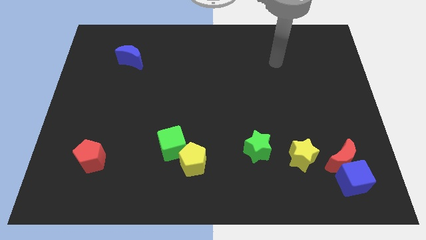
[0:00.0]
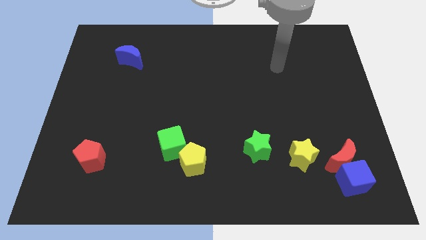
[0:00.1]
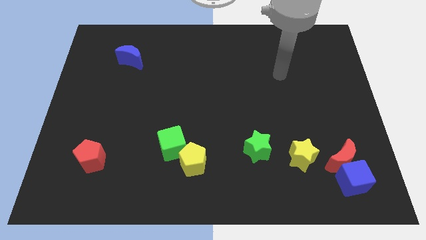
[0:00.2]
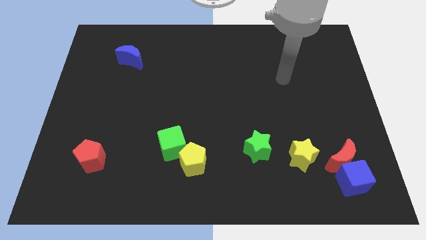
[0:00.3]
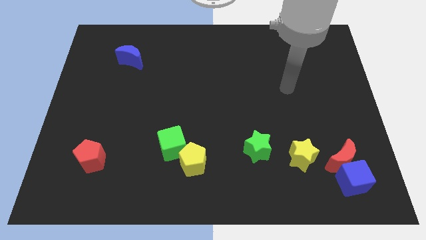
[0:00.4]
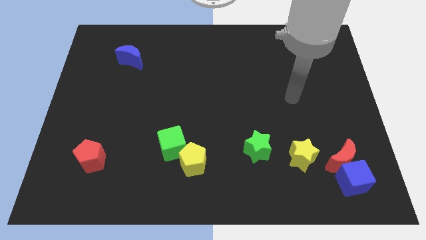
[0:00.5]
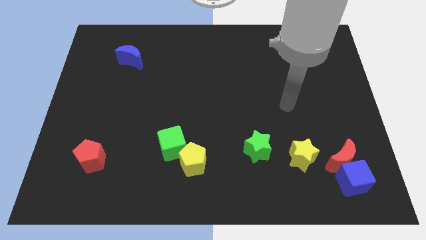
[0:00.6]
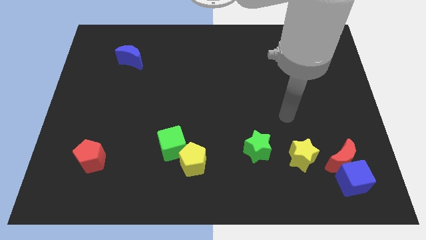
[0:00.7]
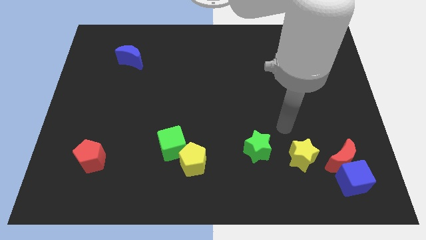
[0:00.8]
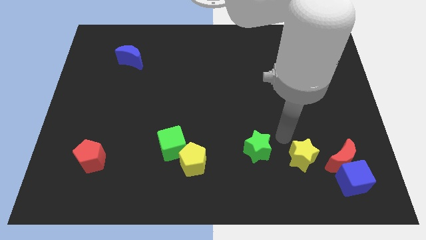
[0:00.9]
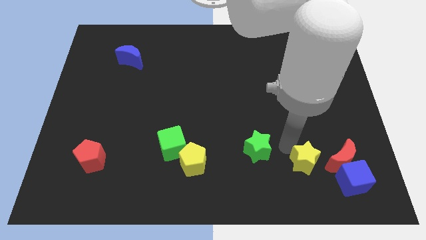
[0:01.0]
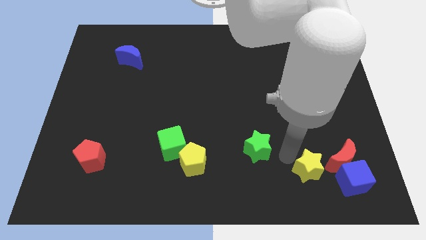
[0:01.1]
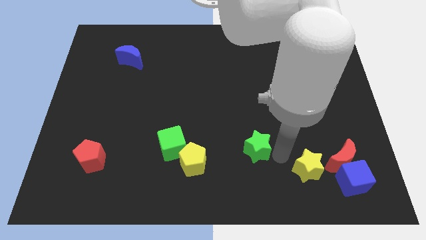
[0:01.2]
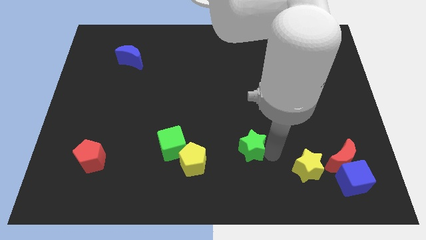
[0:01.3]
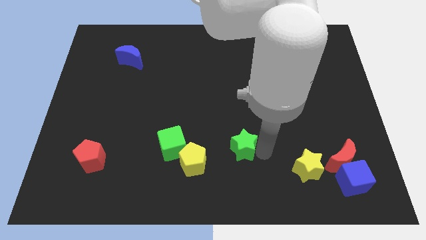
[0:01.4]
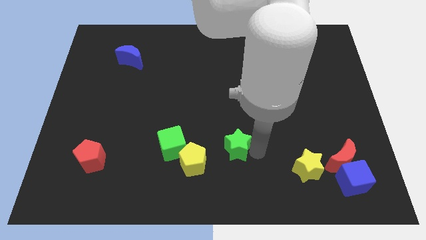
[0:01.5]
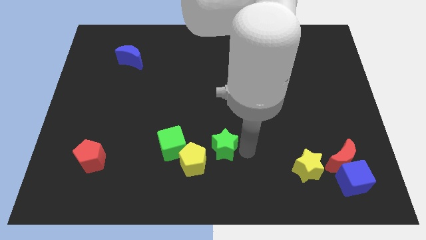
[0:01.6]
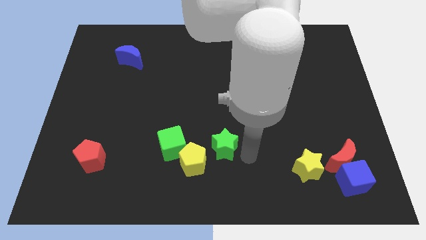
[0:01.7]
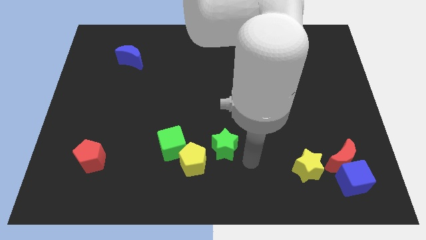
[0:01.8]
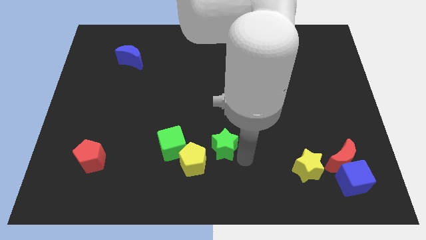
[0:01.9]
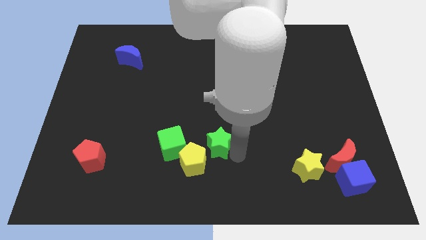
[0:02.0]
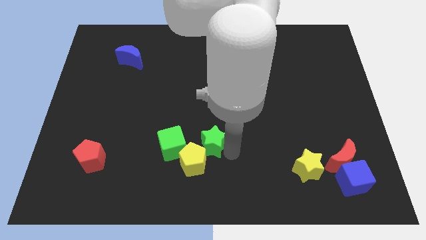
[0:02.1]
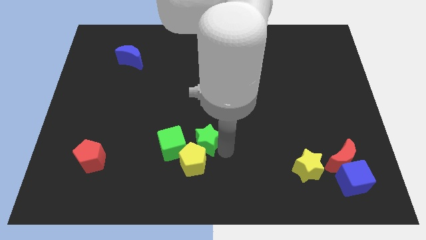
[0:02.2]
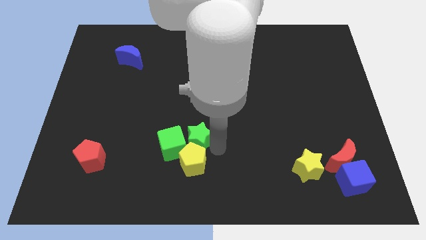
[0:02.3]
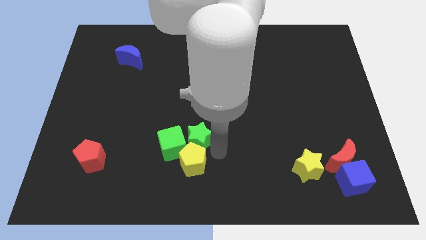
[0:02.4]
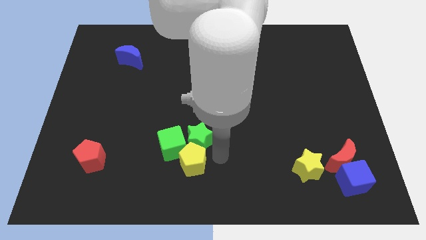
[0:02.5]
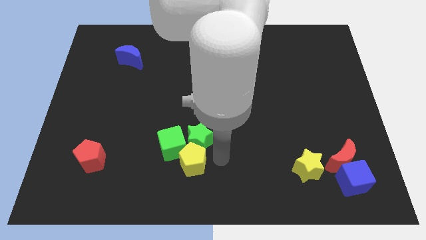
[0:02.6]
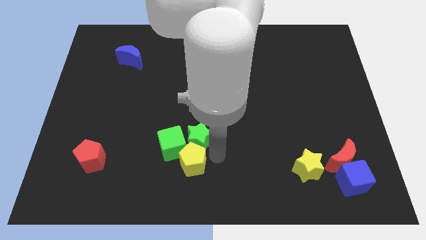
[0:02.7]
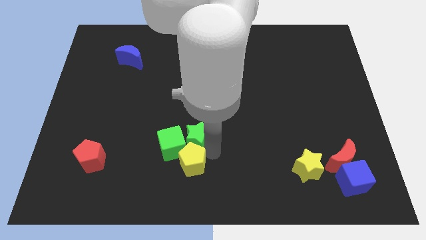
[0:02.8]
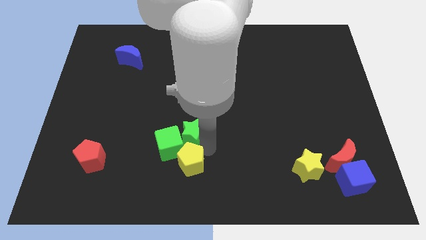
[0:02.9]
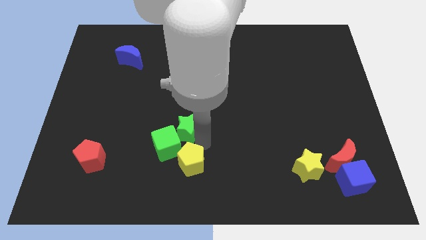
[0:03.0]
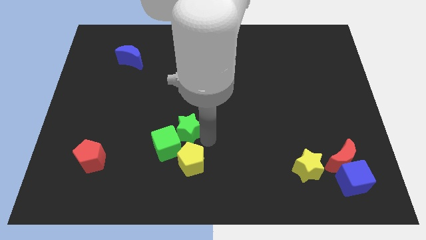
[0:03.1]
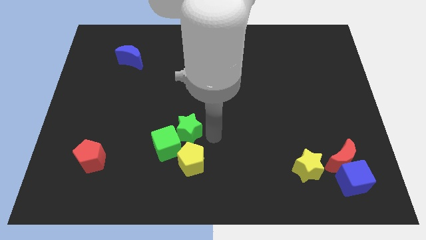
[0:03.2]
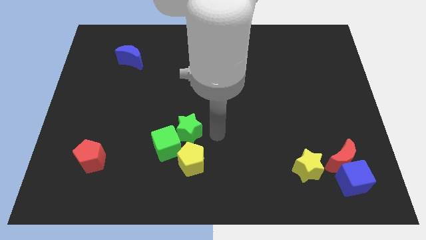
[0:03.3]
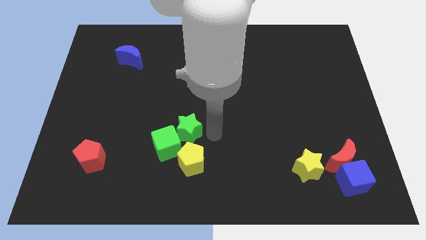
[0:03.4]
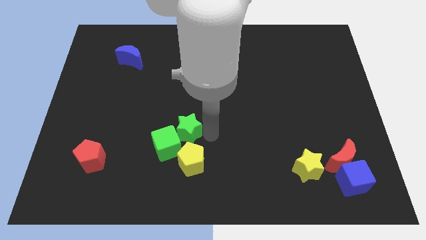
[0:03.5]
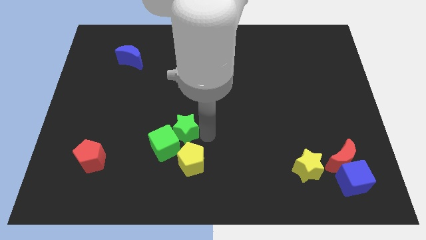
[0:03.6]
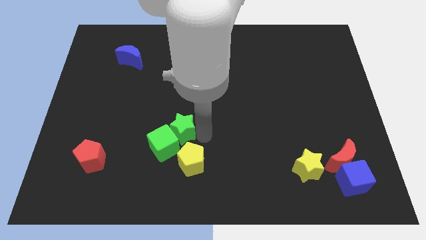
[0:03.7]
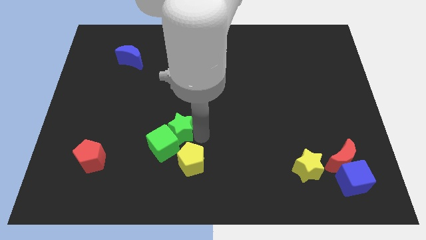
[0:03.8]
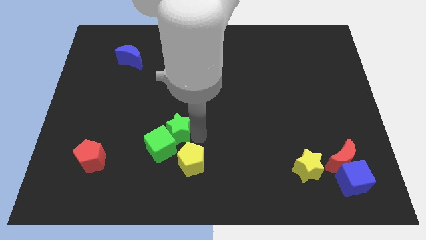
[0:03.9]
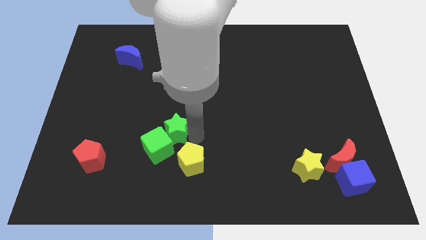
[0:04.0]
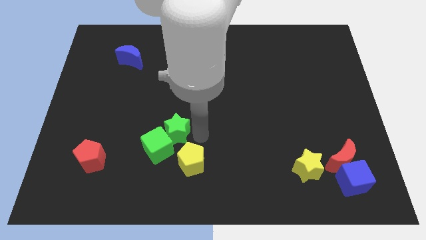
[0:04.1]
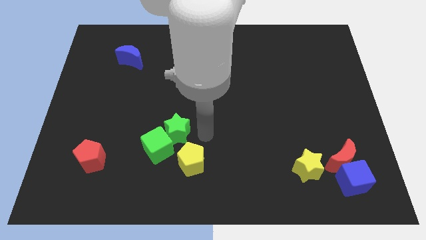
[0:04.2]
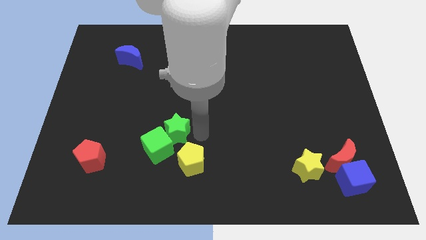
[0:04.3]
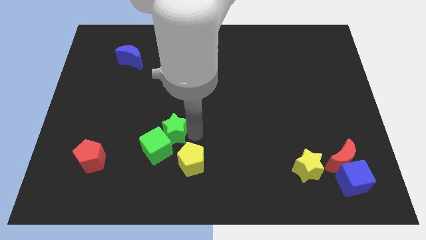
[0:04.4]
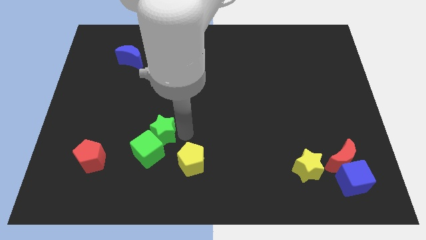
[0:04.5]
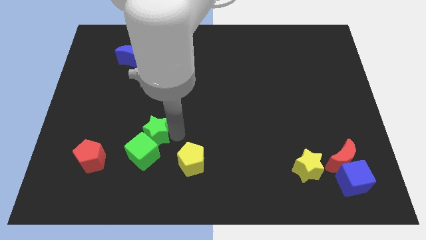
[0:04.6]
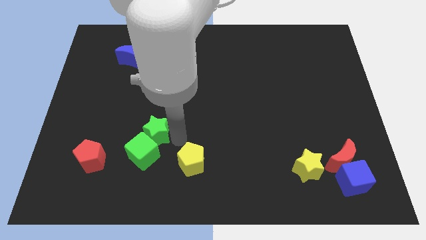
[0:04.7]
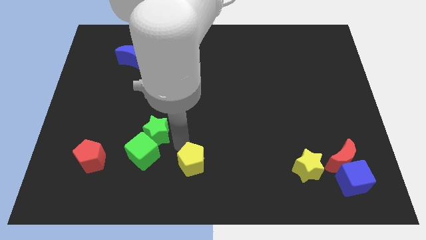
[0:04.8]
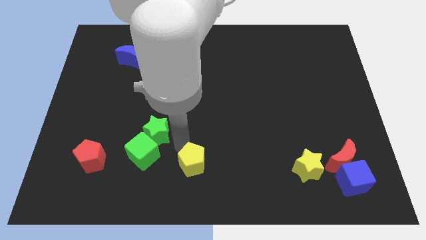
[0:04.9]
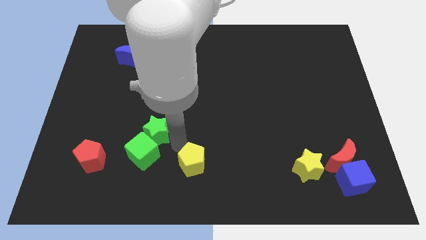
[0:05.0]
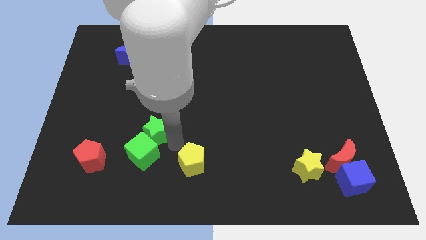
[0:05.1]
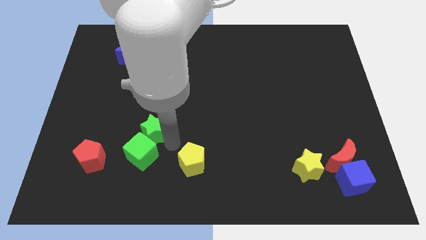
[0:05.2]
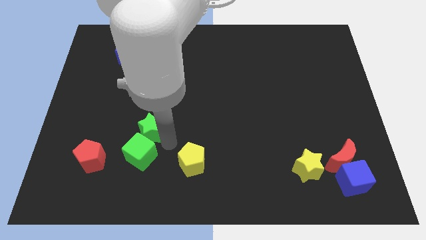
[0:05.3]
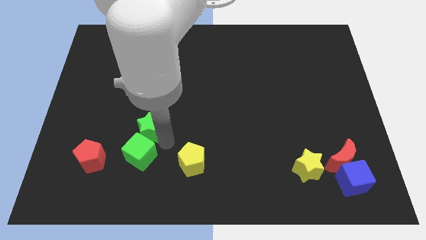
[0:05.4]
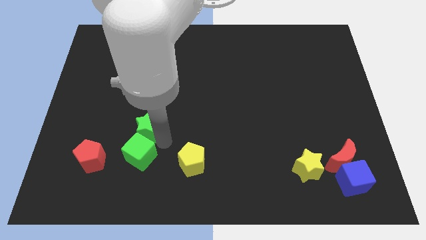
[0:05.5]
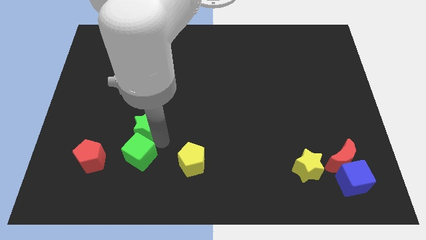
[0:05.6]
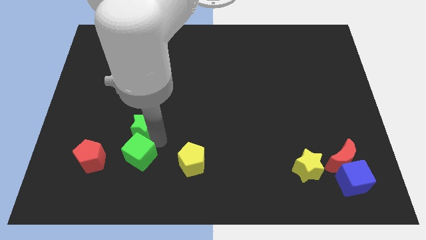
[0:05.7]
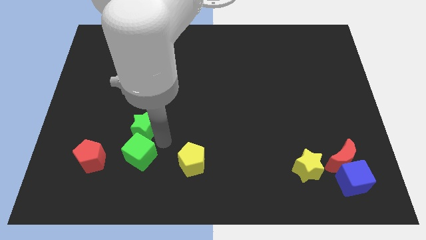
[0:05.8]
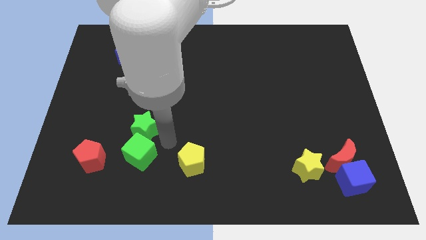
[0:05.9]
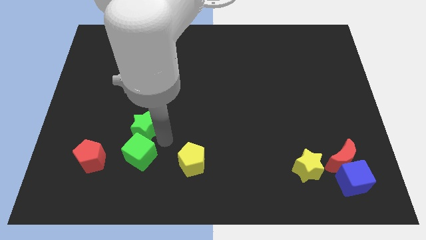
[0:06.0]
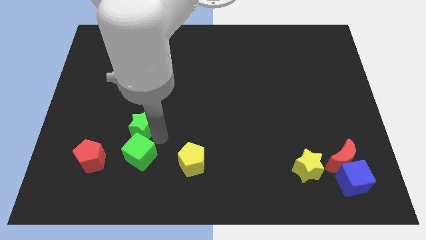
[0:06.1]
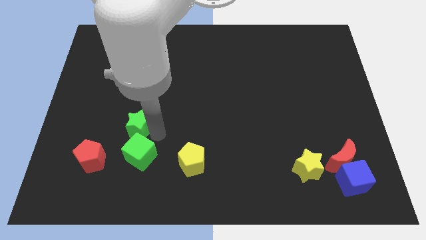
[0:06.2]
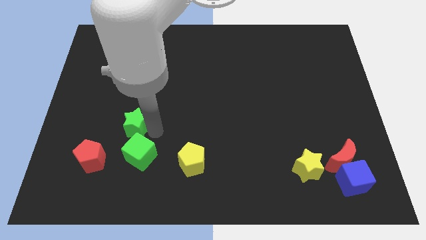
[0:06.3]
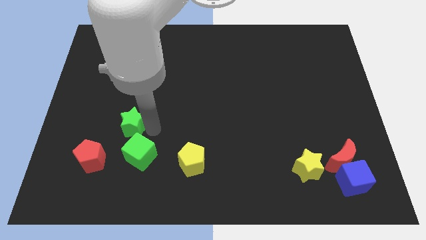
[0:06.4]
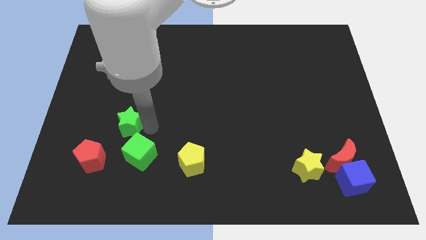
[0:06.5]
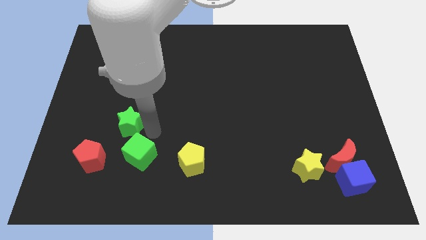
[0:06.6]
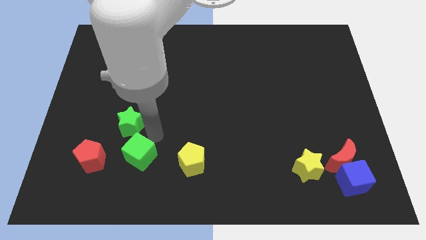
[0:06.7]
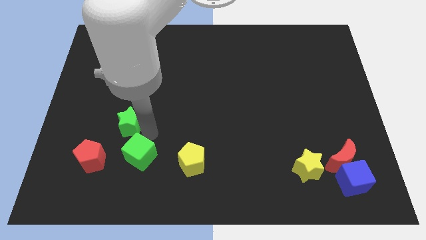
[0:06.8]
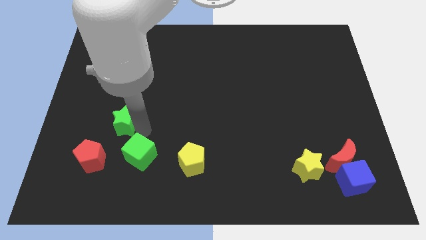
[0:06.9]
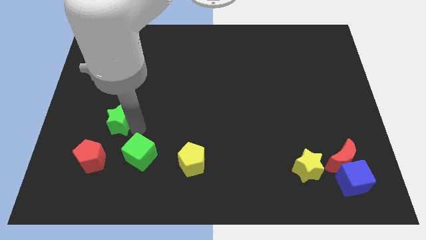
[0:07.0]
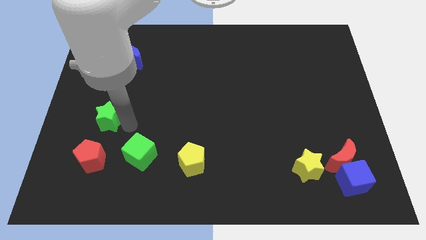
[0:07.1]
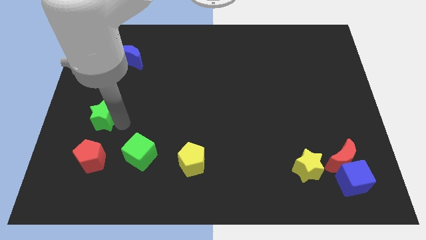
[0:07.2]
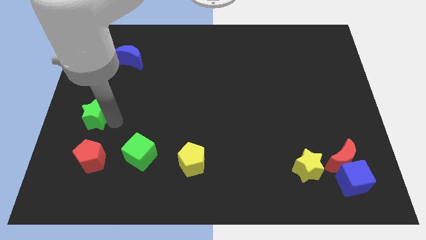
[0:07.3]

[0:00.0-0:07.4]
slide the green star to the center left
